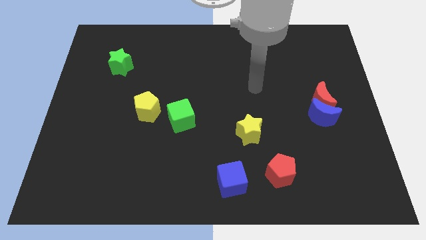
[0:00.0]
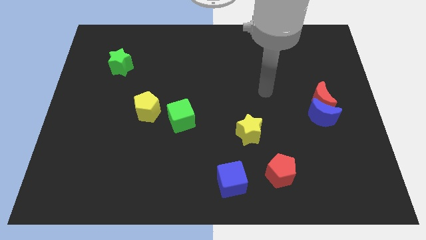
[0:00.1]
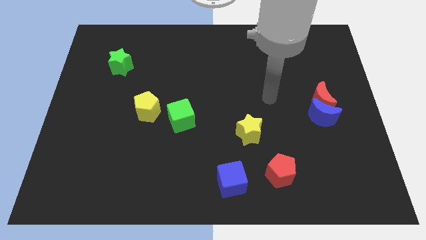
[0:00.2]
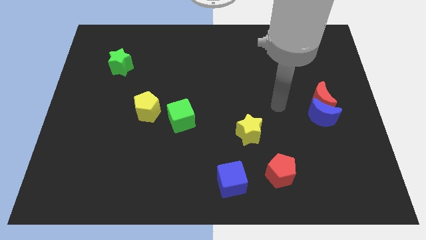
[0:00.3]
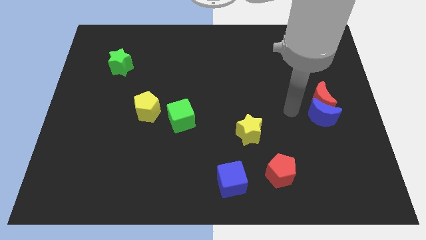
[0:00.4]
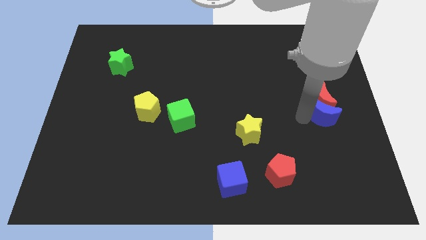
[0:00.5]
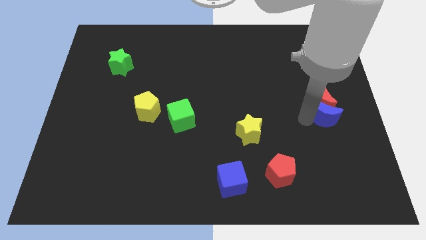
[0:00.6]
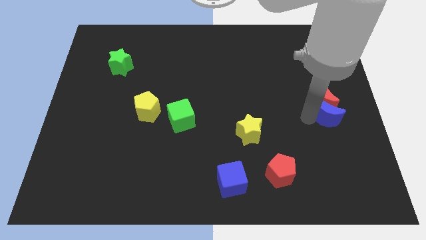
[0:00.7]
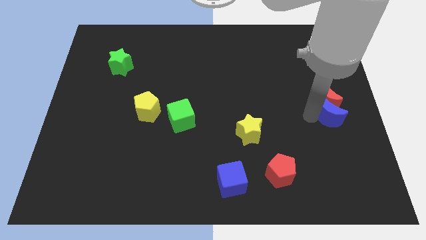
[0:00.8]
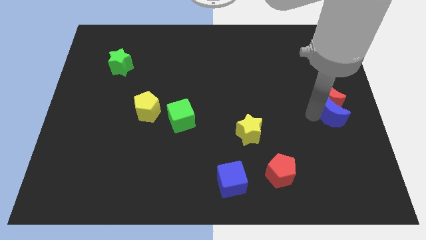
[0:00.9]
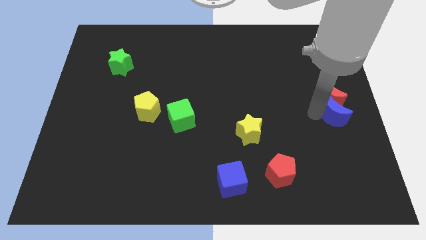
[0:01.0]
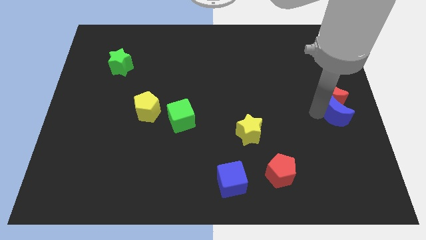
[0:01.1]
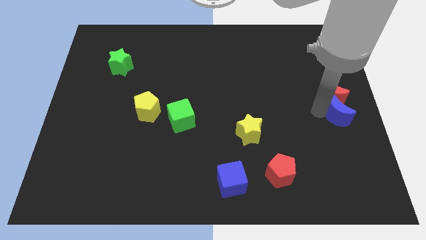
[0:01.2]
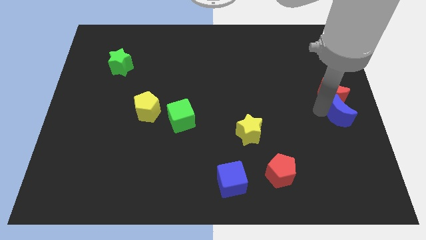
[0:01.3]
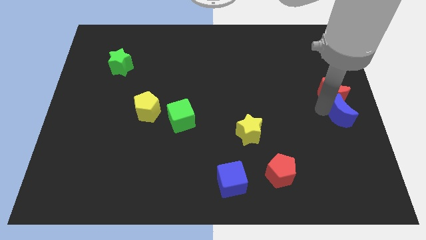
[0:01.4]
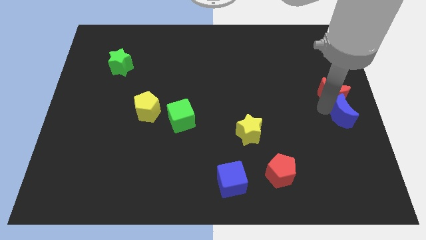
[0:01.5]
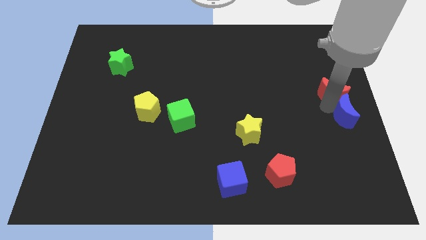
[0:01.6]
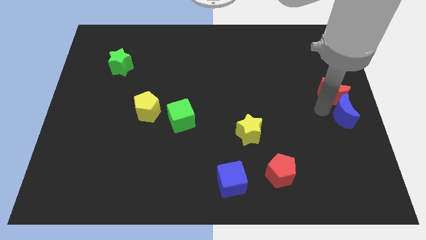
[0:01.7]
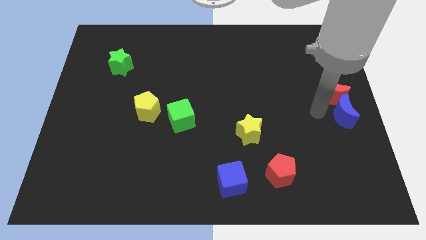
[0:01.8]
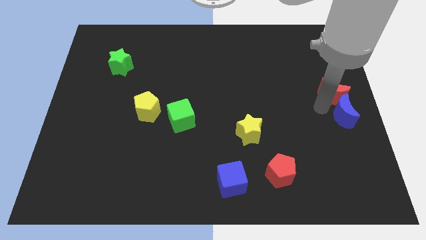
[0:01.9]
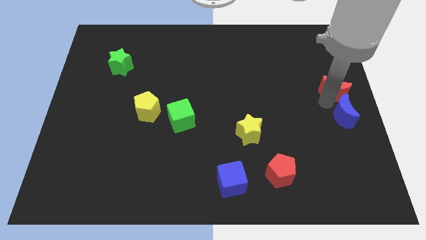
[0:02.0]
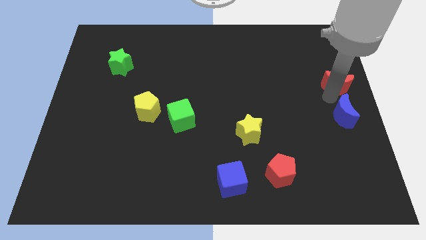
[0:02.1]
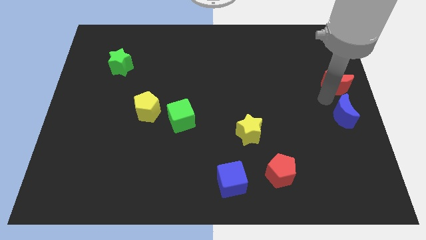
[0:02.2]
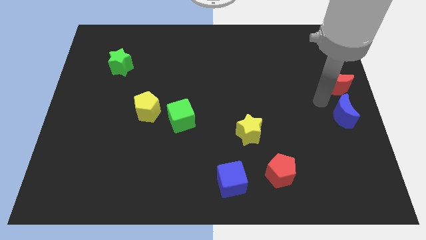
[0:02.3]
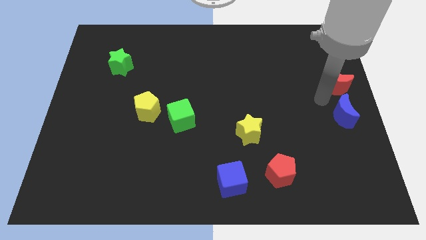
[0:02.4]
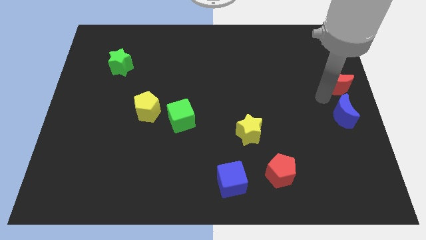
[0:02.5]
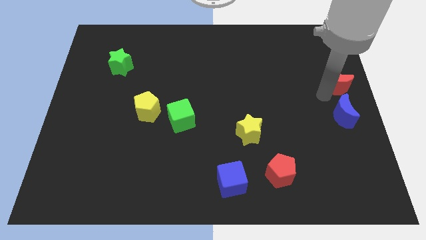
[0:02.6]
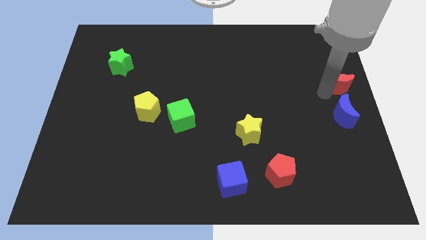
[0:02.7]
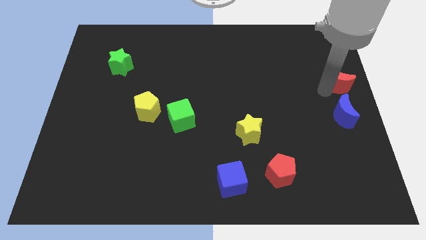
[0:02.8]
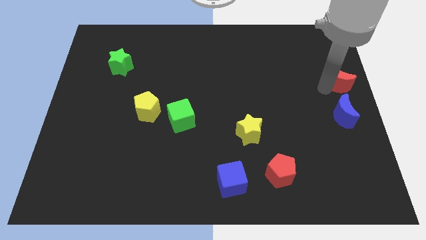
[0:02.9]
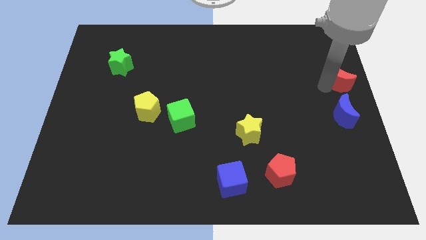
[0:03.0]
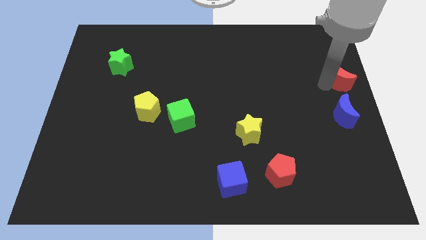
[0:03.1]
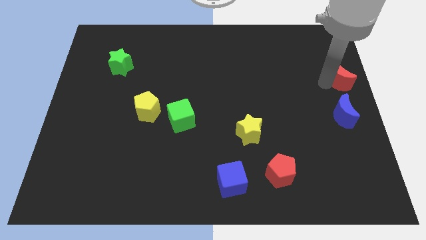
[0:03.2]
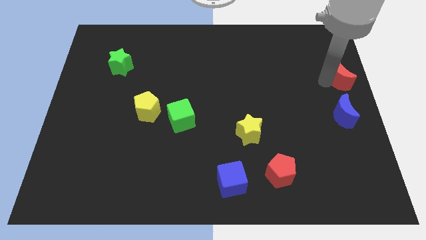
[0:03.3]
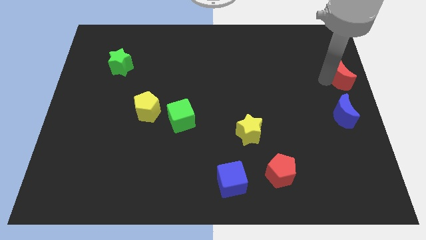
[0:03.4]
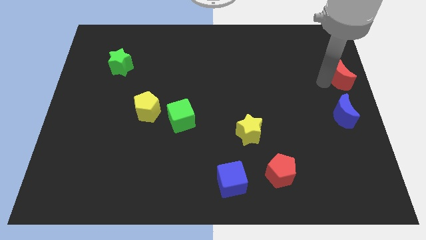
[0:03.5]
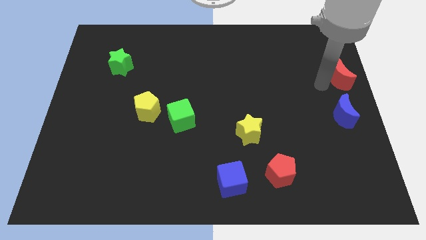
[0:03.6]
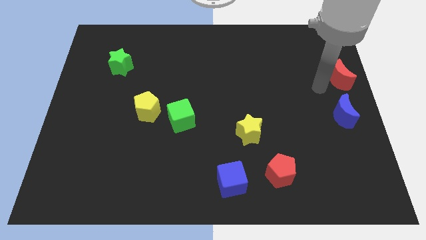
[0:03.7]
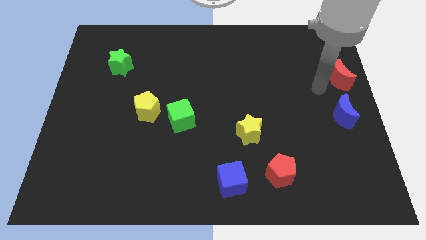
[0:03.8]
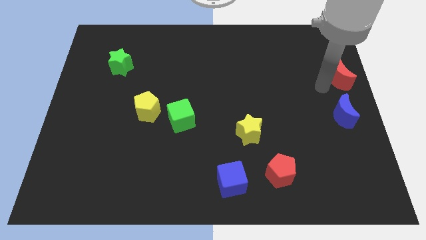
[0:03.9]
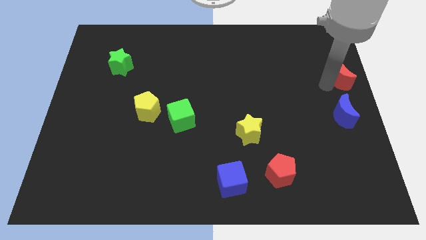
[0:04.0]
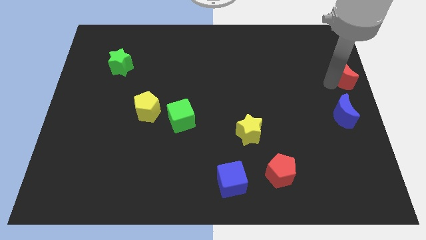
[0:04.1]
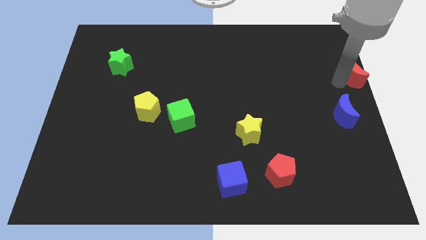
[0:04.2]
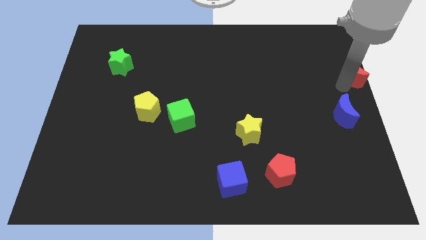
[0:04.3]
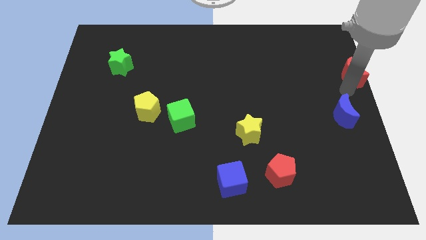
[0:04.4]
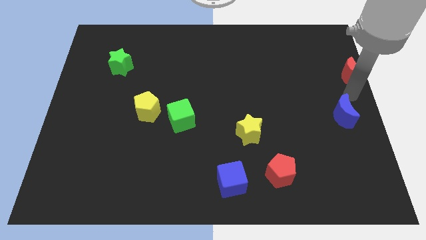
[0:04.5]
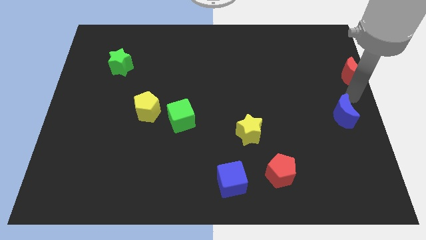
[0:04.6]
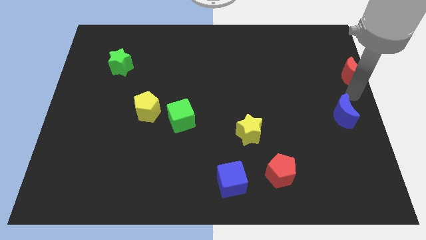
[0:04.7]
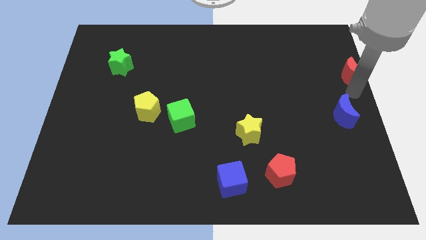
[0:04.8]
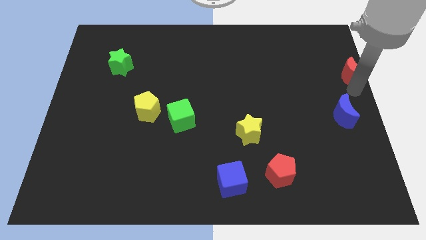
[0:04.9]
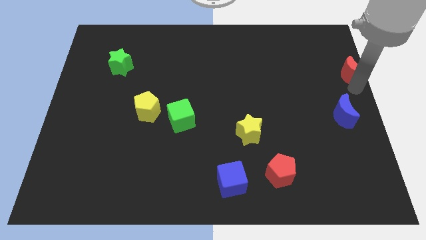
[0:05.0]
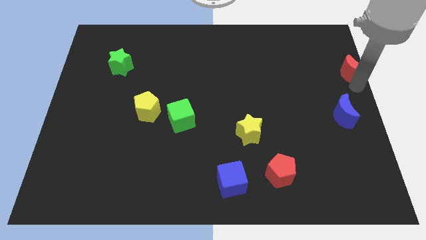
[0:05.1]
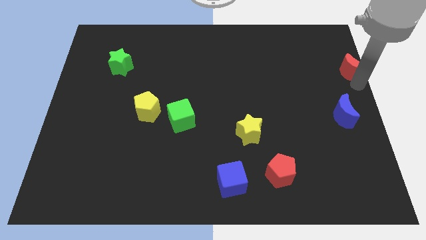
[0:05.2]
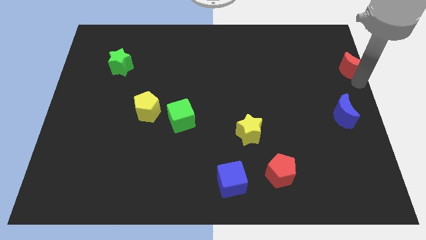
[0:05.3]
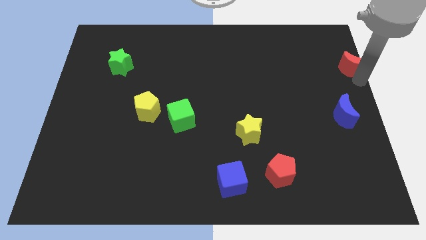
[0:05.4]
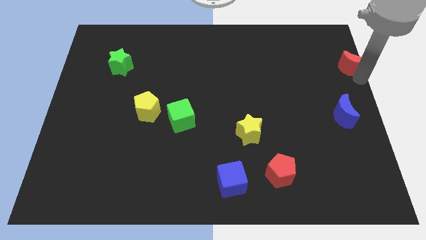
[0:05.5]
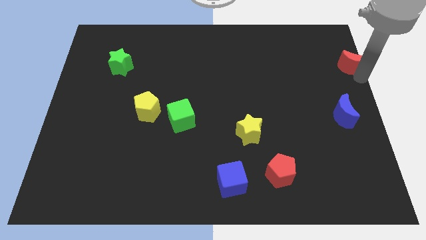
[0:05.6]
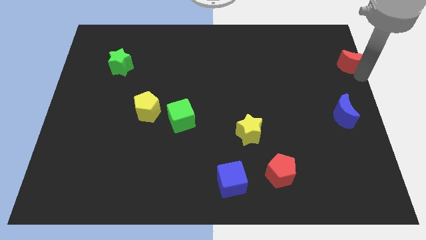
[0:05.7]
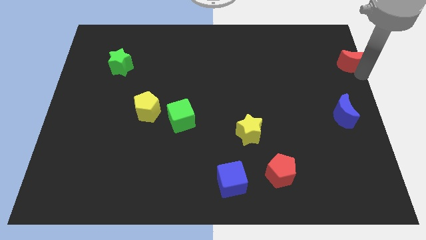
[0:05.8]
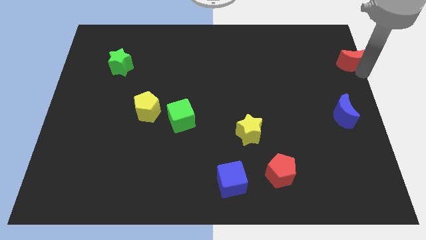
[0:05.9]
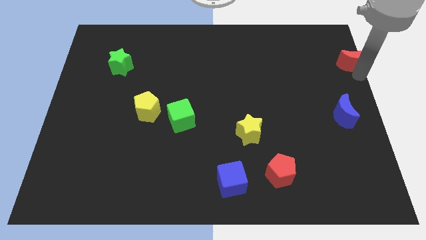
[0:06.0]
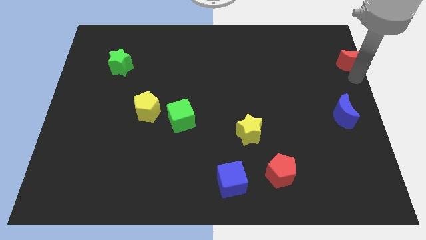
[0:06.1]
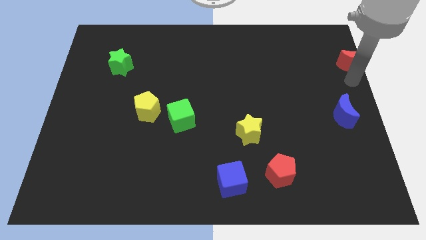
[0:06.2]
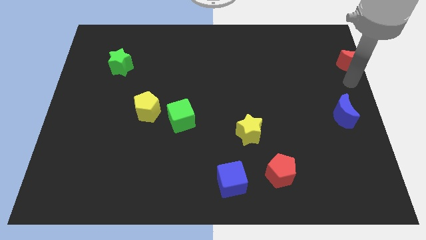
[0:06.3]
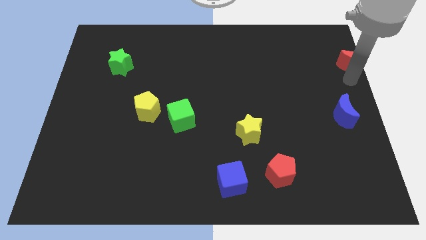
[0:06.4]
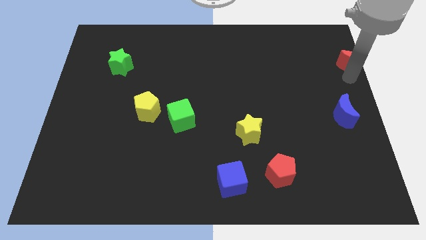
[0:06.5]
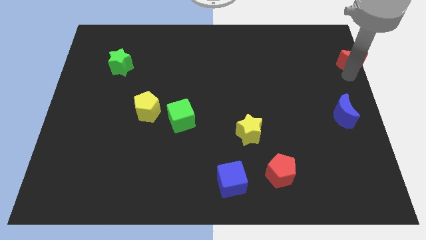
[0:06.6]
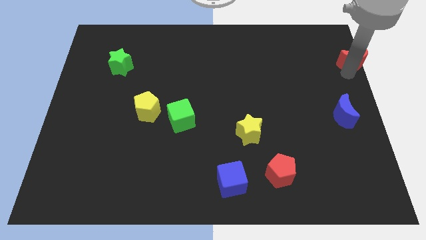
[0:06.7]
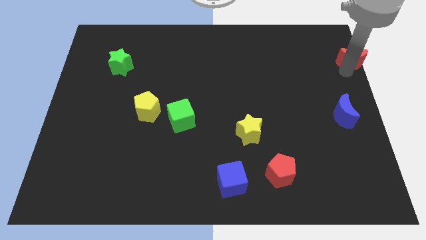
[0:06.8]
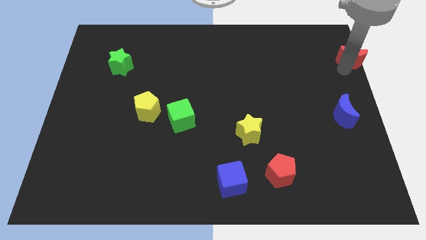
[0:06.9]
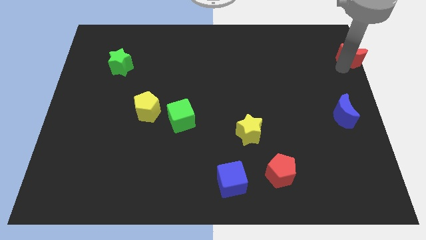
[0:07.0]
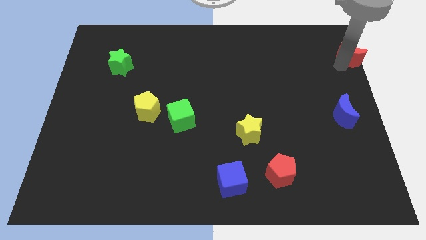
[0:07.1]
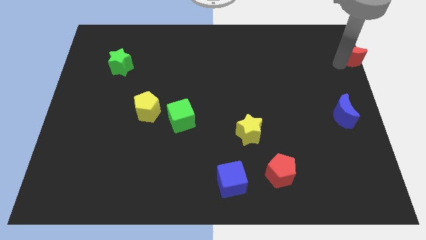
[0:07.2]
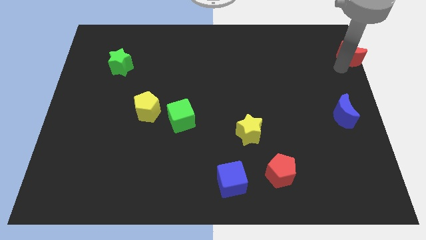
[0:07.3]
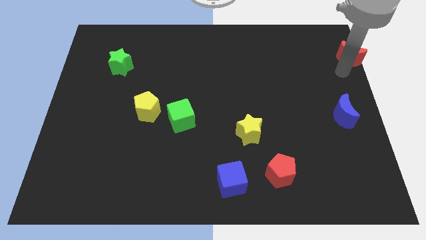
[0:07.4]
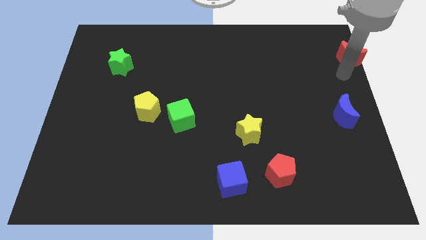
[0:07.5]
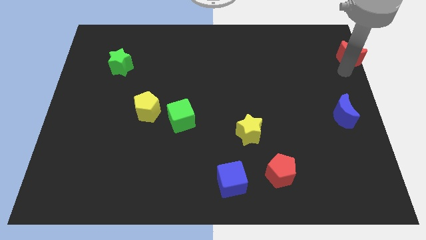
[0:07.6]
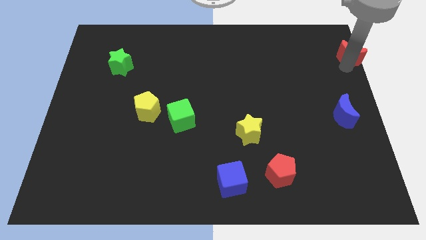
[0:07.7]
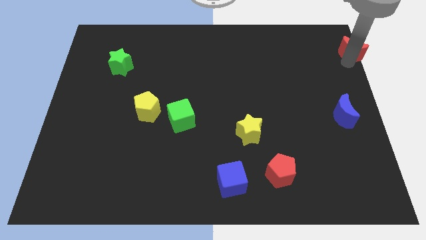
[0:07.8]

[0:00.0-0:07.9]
move the red moon to the upper right corner
